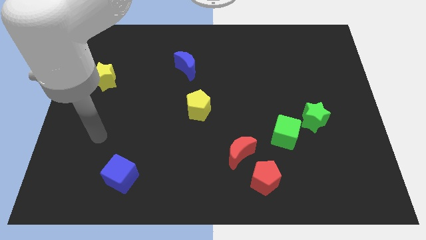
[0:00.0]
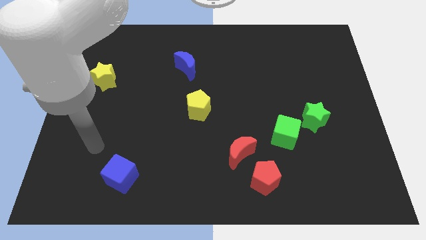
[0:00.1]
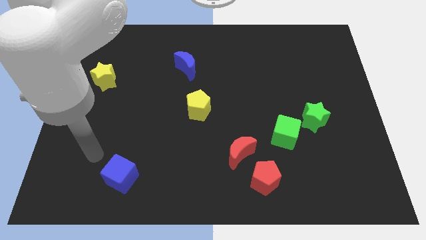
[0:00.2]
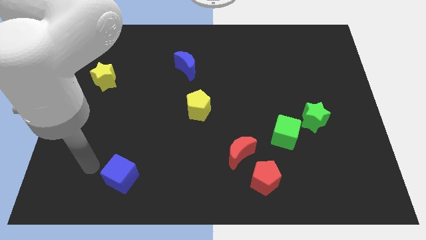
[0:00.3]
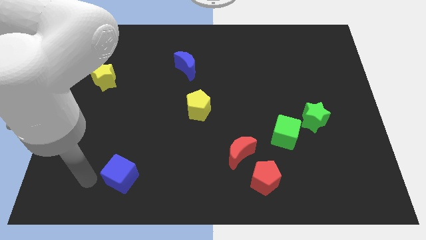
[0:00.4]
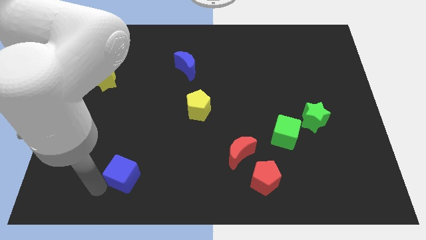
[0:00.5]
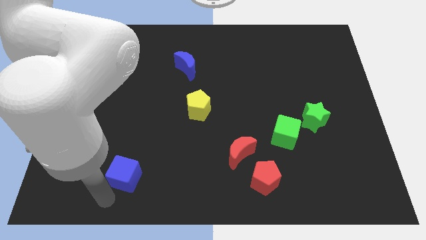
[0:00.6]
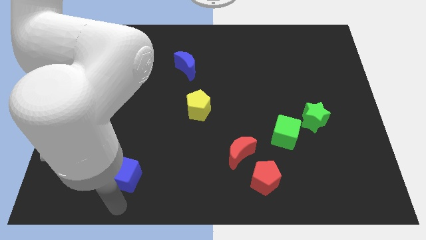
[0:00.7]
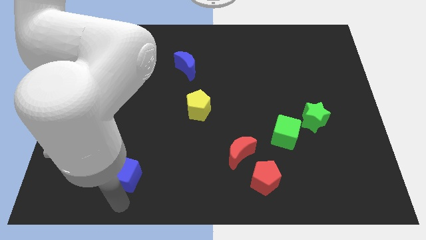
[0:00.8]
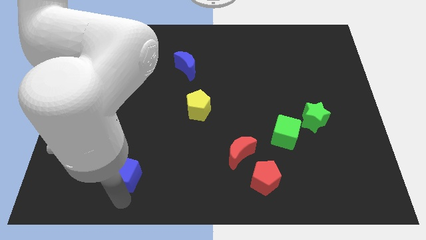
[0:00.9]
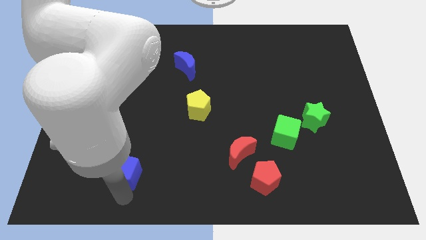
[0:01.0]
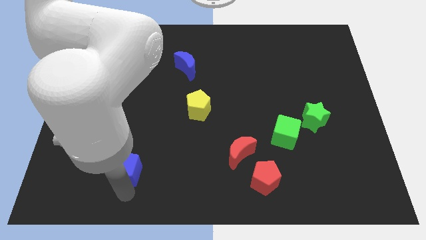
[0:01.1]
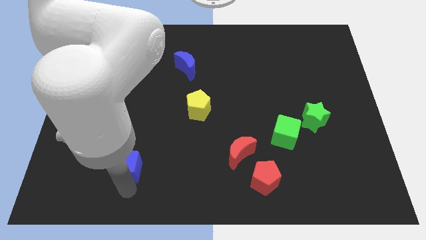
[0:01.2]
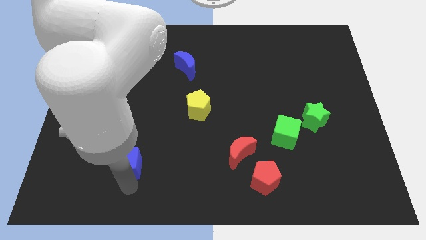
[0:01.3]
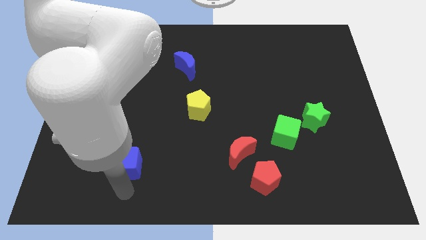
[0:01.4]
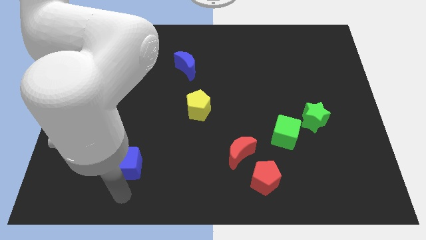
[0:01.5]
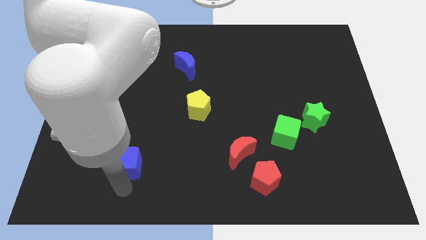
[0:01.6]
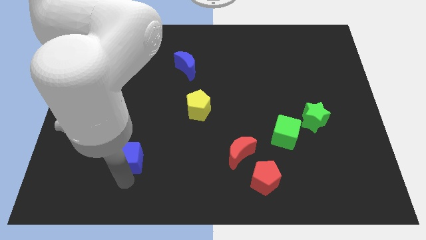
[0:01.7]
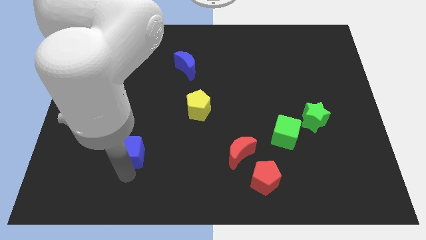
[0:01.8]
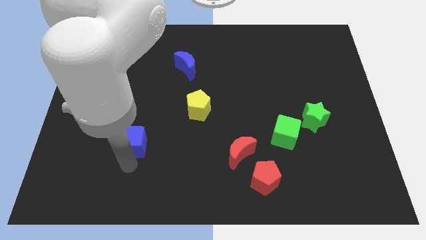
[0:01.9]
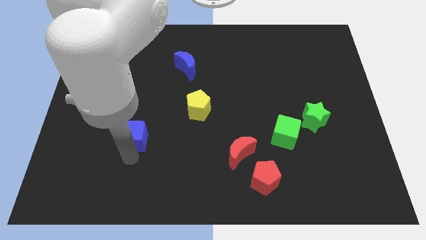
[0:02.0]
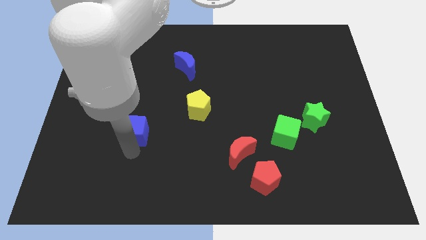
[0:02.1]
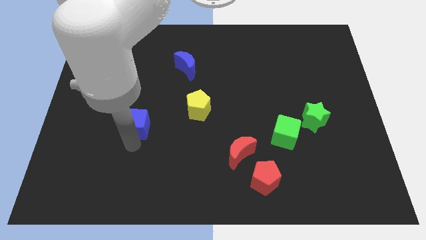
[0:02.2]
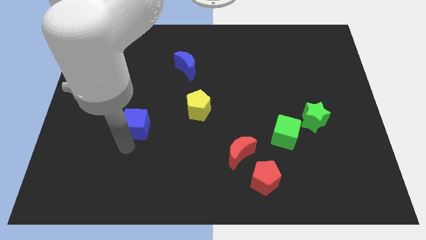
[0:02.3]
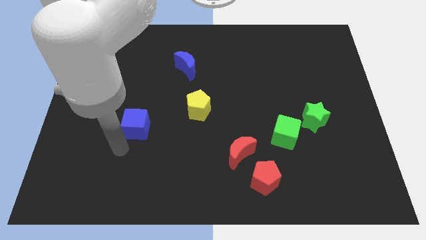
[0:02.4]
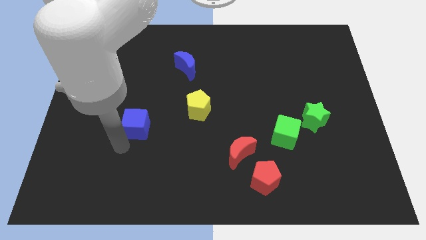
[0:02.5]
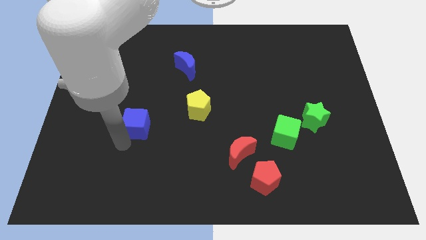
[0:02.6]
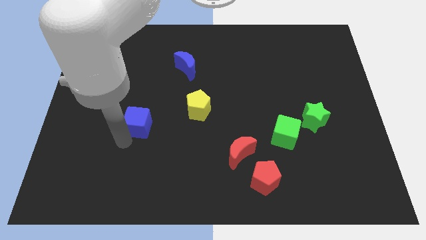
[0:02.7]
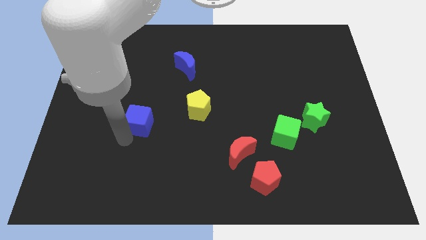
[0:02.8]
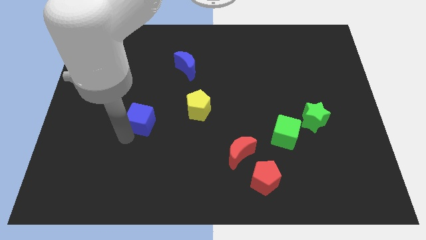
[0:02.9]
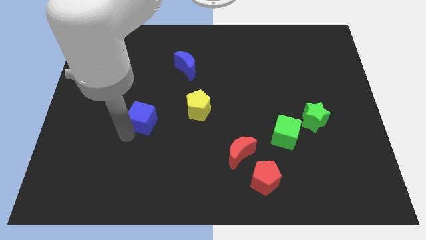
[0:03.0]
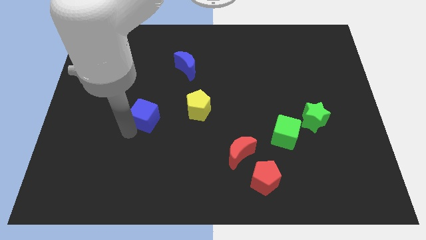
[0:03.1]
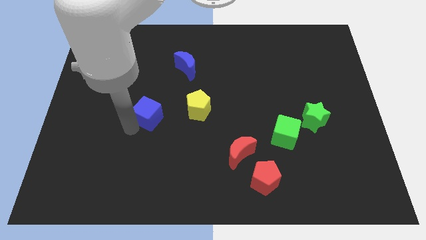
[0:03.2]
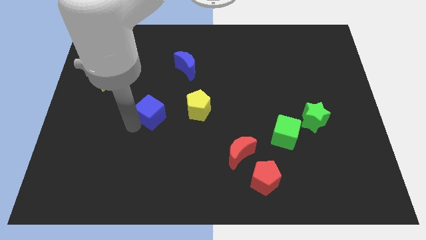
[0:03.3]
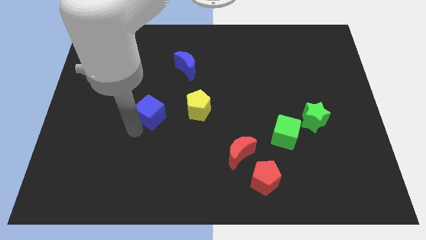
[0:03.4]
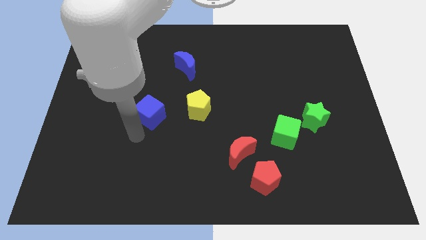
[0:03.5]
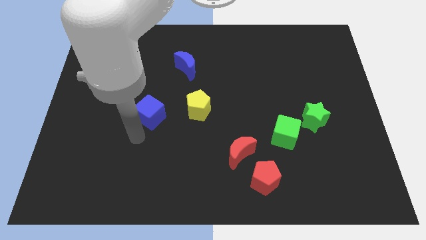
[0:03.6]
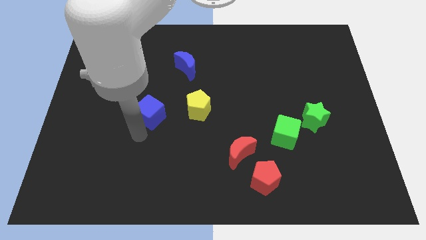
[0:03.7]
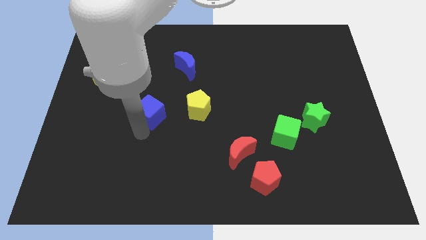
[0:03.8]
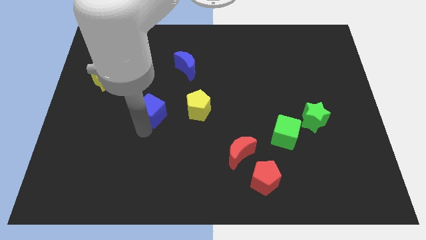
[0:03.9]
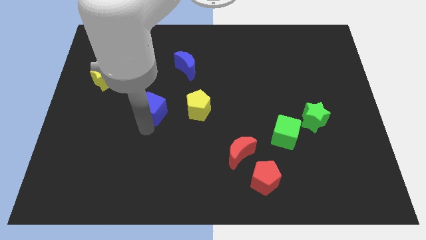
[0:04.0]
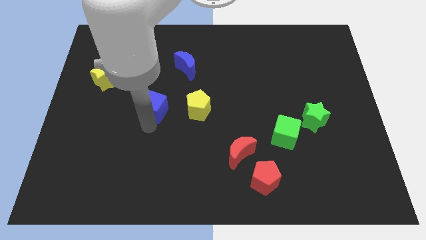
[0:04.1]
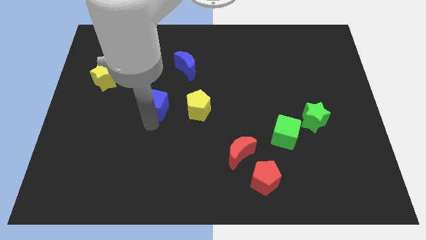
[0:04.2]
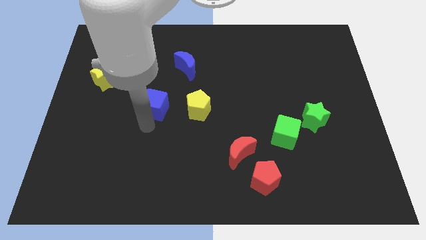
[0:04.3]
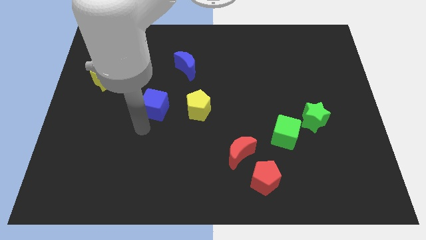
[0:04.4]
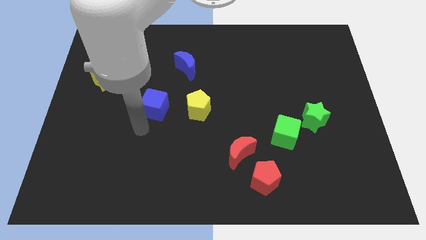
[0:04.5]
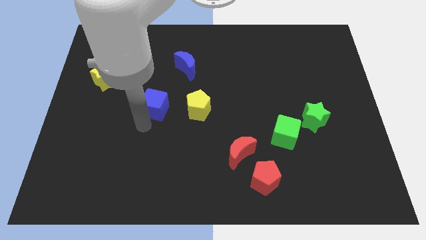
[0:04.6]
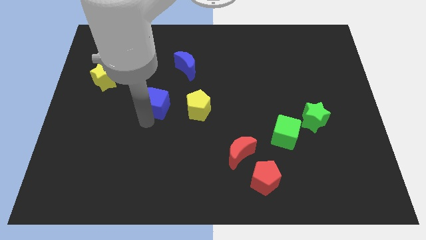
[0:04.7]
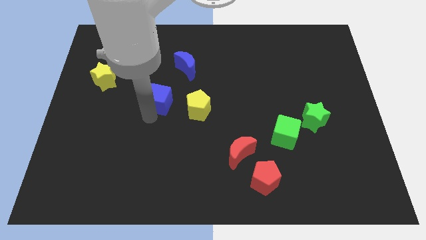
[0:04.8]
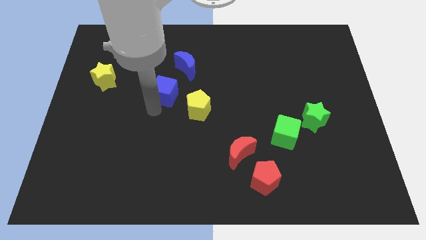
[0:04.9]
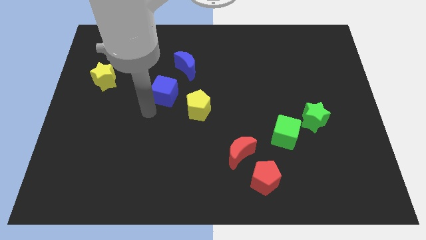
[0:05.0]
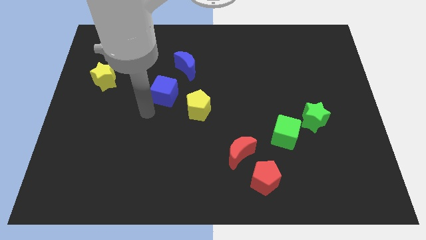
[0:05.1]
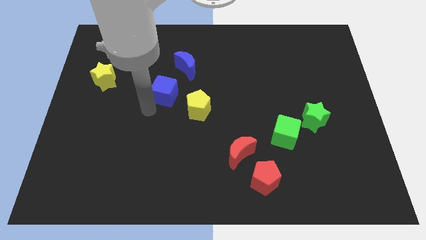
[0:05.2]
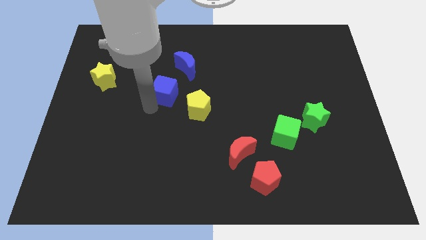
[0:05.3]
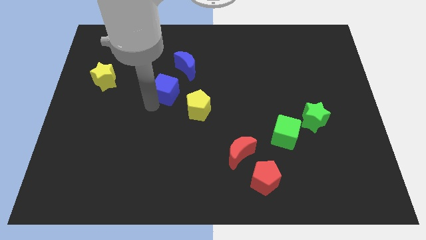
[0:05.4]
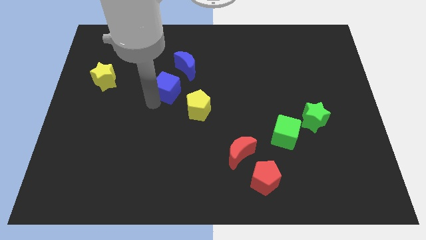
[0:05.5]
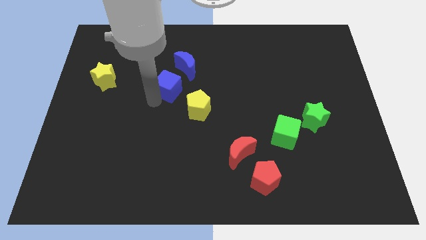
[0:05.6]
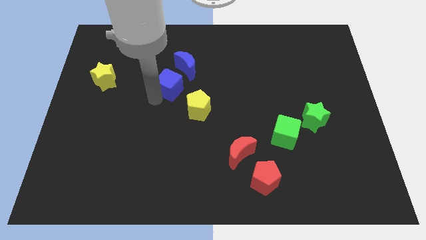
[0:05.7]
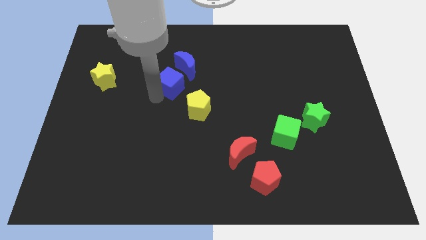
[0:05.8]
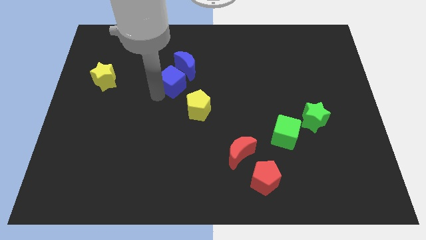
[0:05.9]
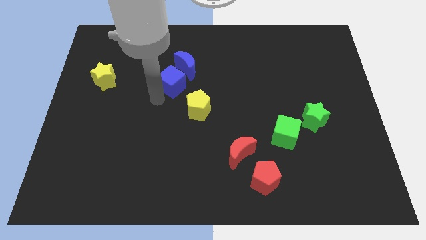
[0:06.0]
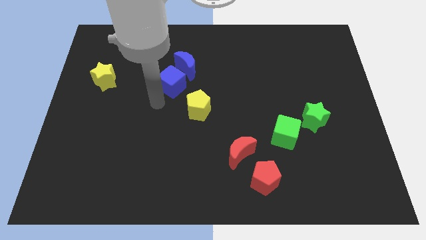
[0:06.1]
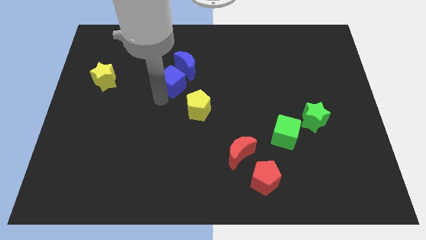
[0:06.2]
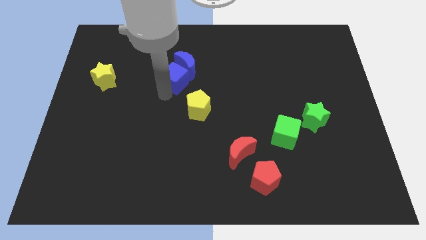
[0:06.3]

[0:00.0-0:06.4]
push the blue cube close to the blue moon

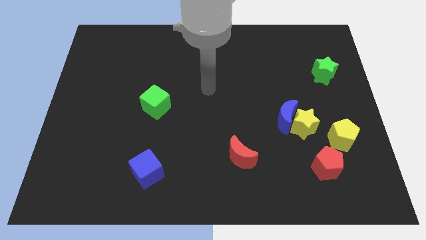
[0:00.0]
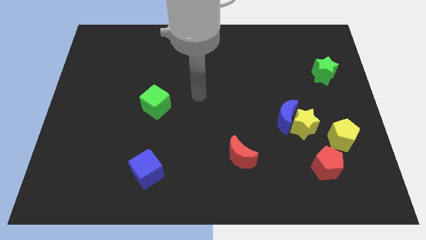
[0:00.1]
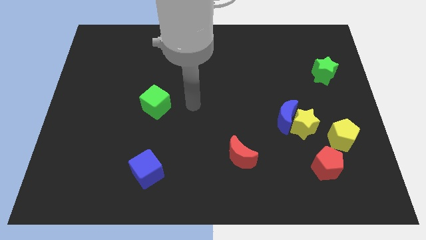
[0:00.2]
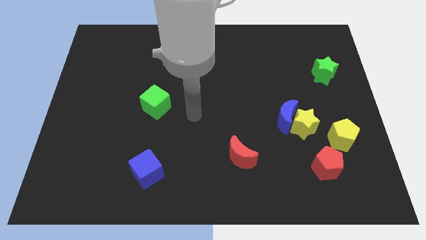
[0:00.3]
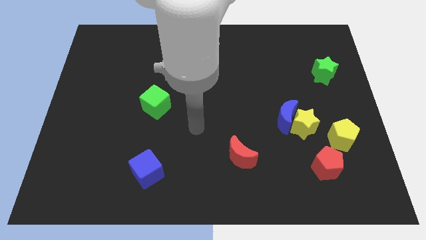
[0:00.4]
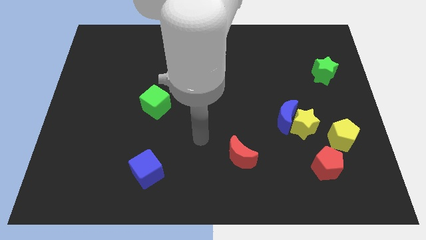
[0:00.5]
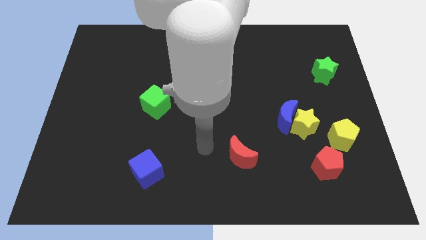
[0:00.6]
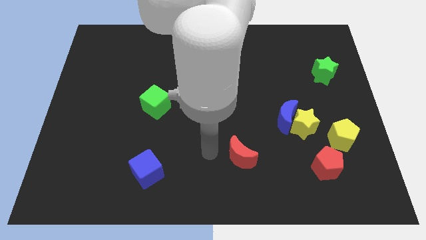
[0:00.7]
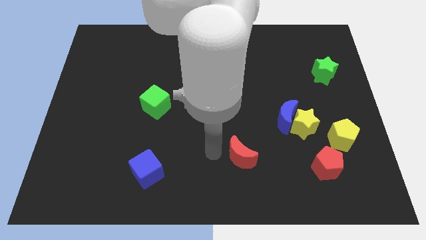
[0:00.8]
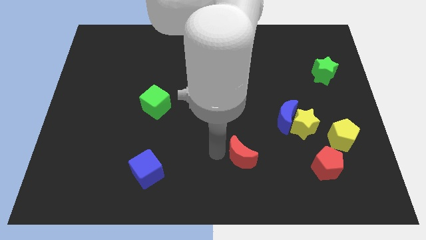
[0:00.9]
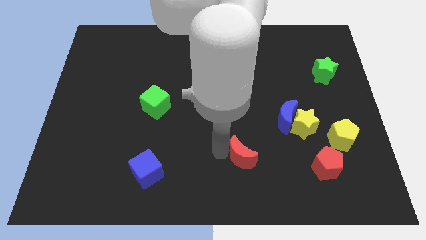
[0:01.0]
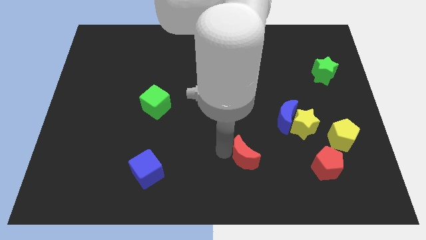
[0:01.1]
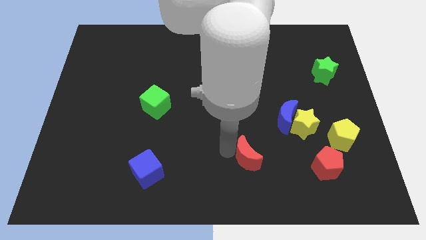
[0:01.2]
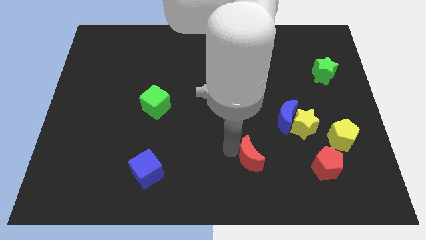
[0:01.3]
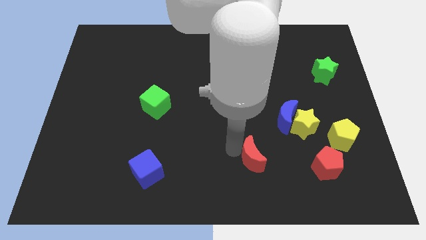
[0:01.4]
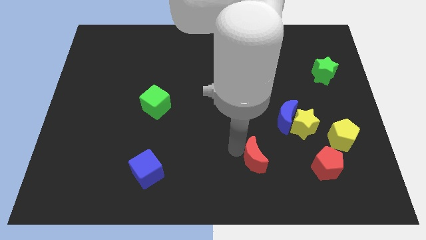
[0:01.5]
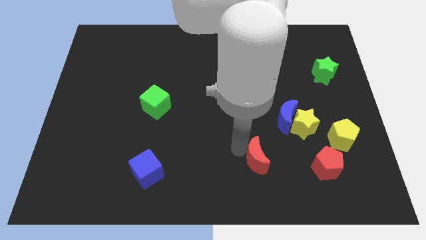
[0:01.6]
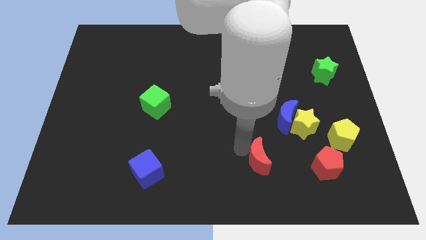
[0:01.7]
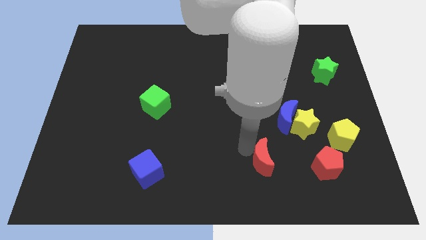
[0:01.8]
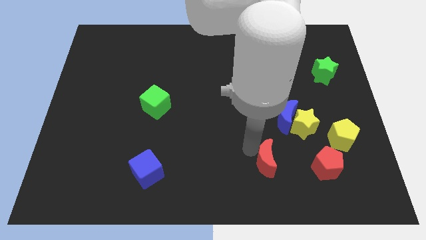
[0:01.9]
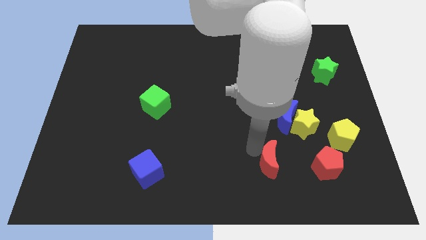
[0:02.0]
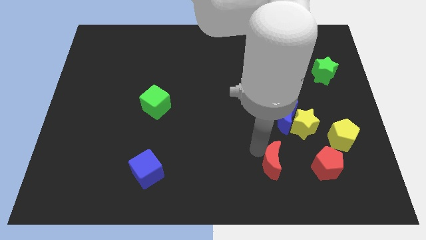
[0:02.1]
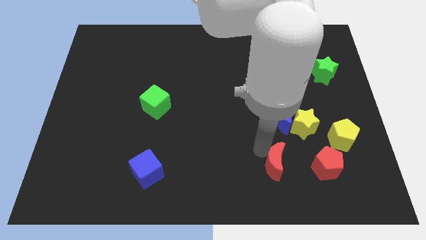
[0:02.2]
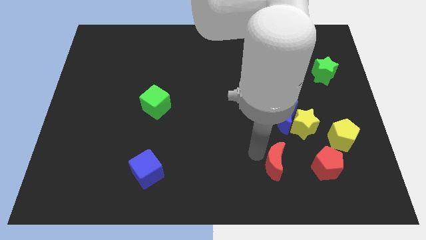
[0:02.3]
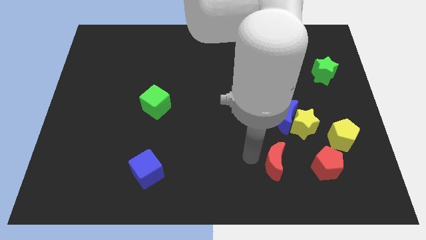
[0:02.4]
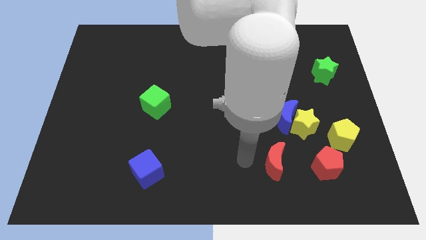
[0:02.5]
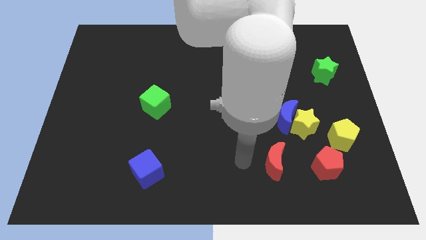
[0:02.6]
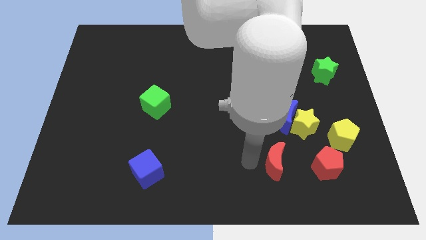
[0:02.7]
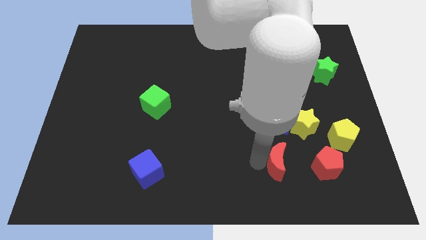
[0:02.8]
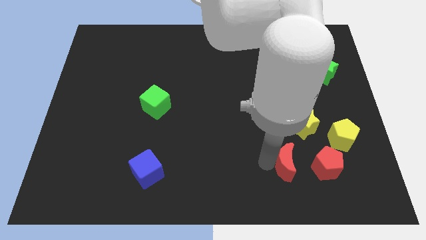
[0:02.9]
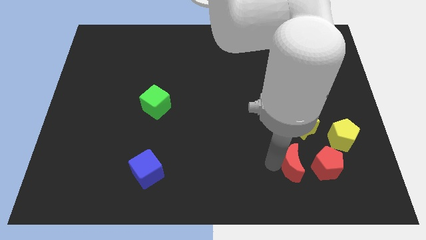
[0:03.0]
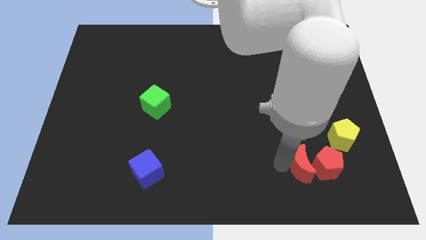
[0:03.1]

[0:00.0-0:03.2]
put the red moon towards the red pentagon
